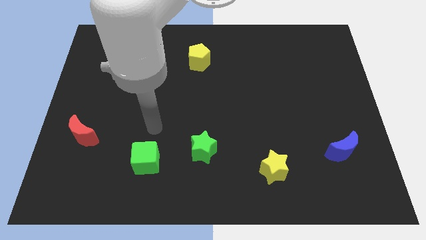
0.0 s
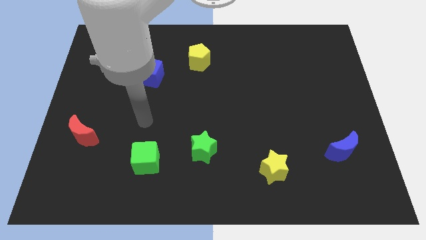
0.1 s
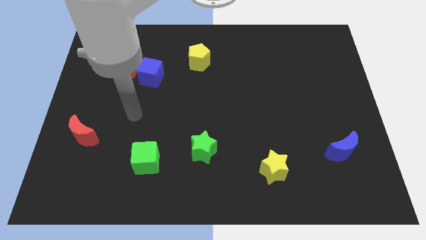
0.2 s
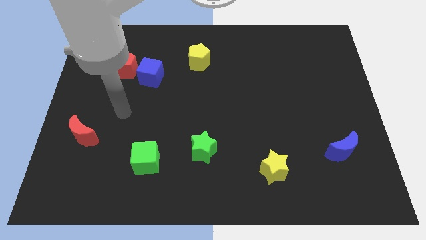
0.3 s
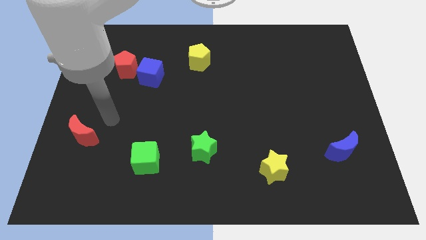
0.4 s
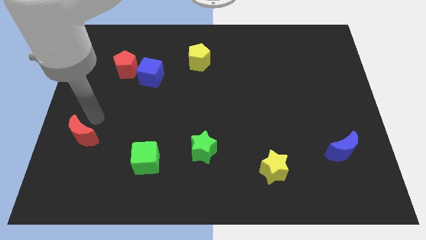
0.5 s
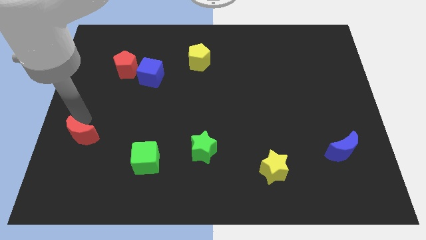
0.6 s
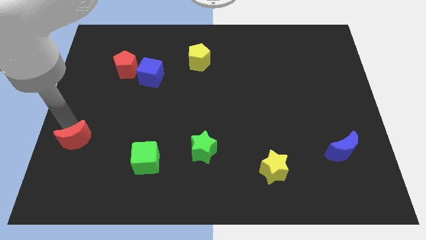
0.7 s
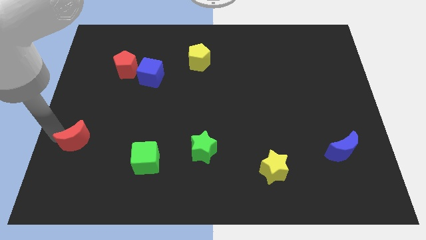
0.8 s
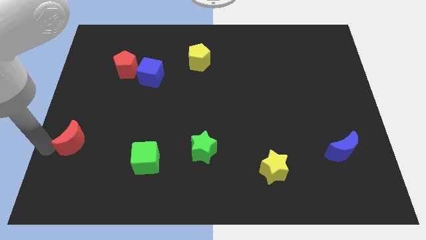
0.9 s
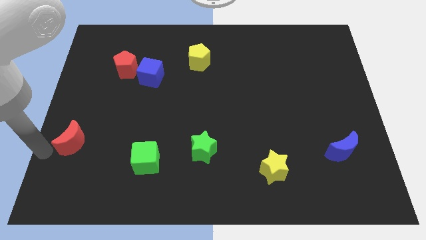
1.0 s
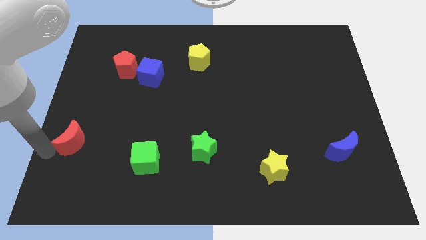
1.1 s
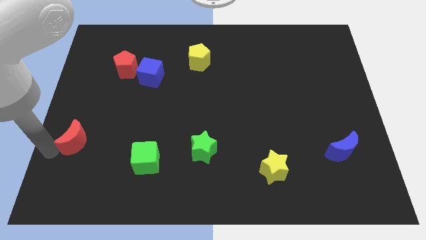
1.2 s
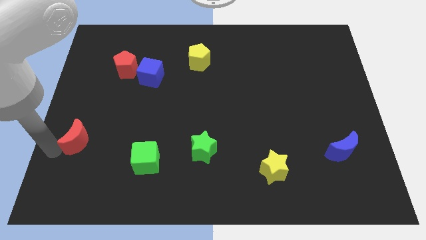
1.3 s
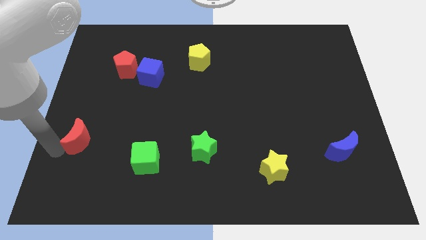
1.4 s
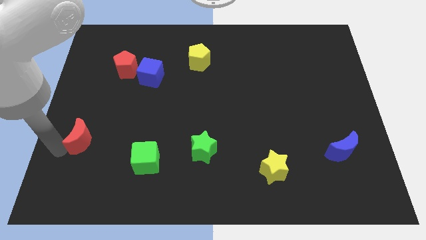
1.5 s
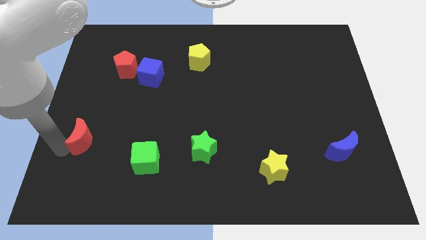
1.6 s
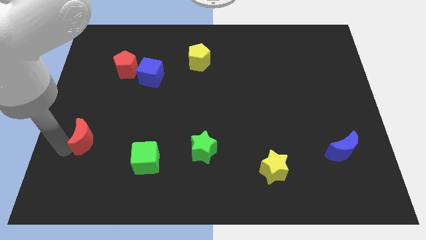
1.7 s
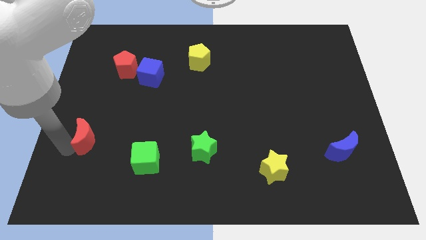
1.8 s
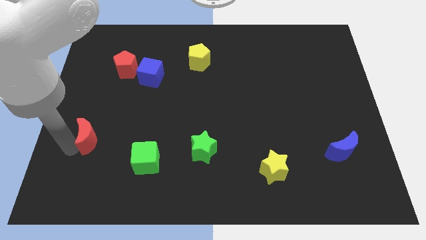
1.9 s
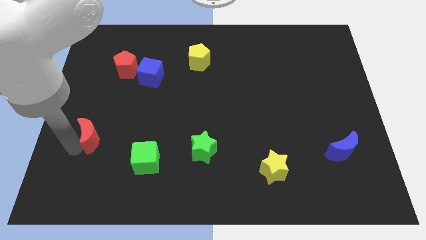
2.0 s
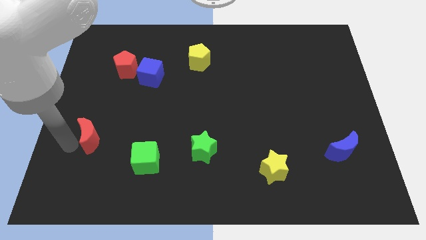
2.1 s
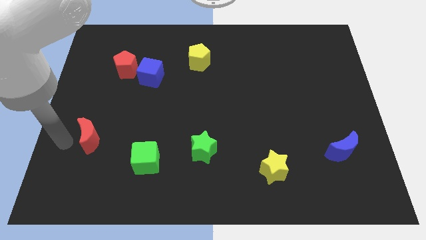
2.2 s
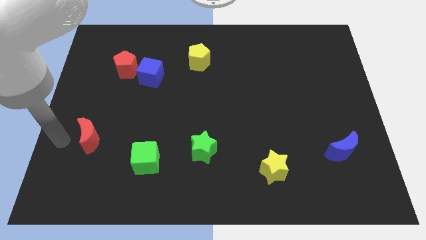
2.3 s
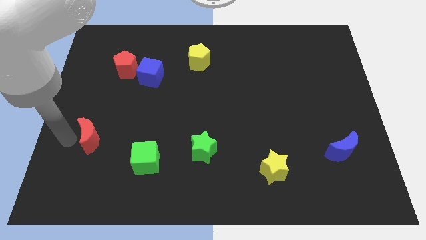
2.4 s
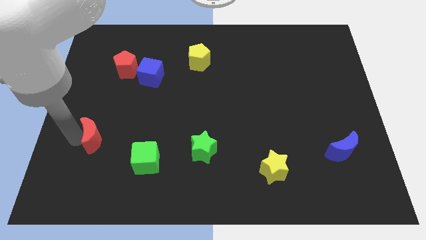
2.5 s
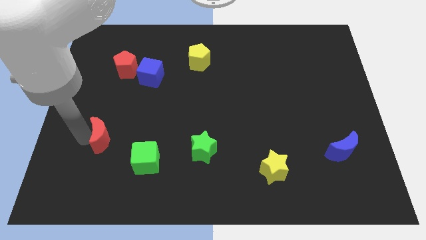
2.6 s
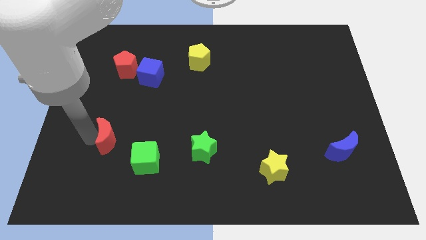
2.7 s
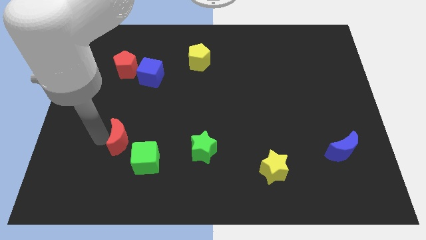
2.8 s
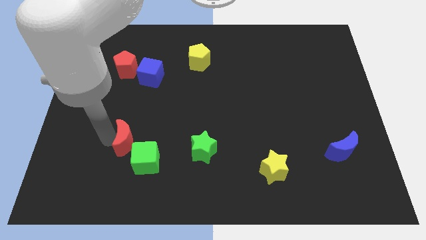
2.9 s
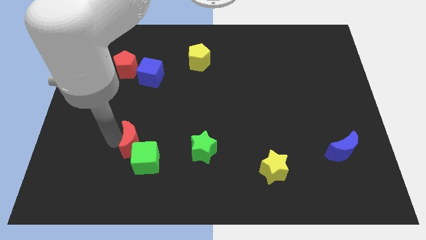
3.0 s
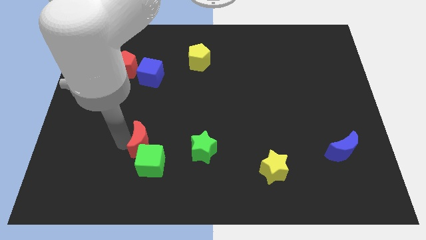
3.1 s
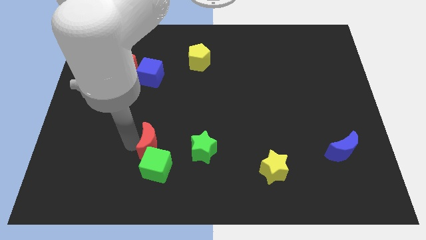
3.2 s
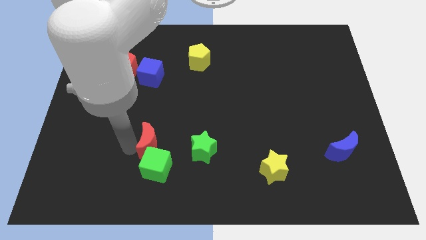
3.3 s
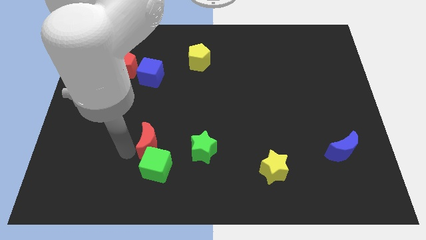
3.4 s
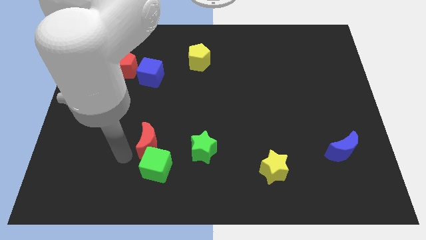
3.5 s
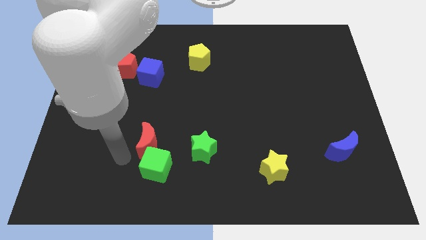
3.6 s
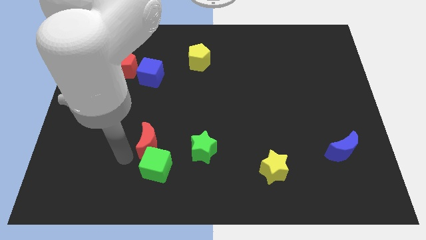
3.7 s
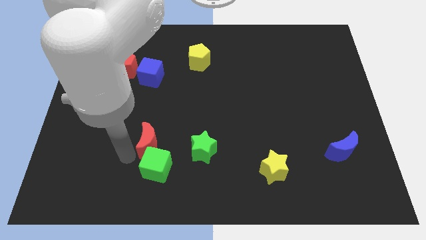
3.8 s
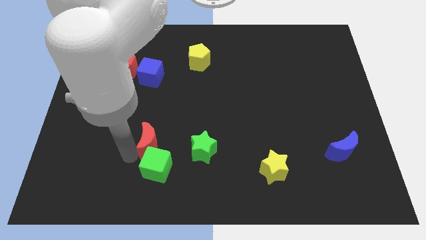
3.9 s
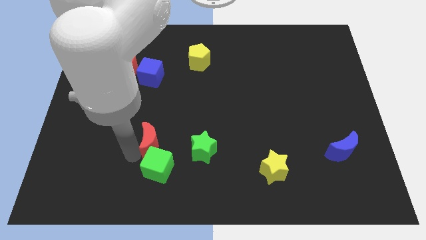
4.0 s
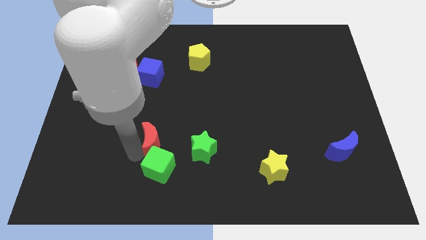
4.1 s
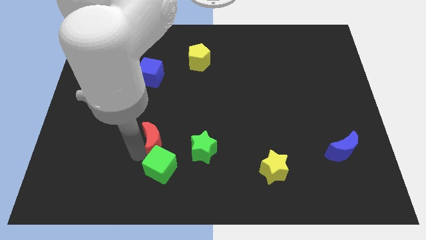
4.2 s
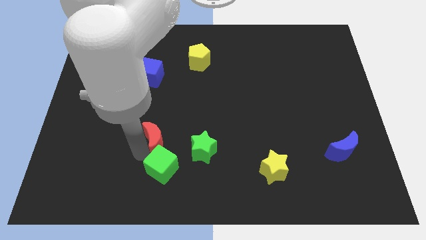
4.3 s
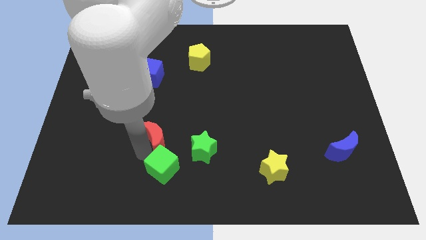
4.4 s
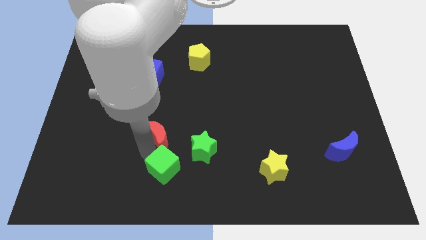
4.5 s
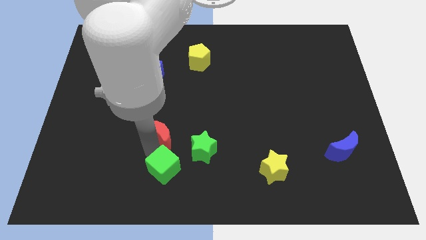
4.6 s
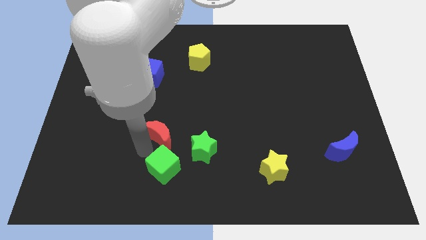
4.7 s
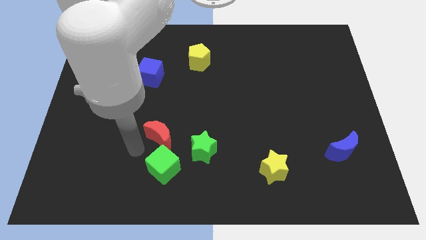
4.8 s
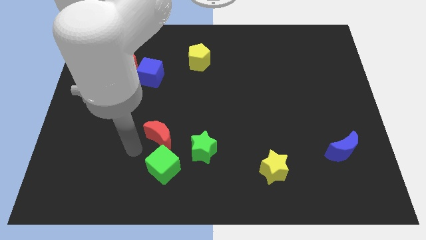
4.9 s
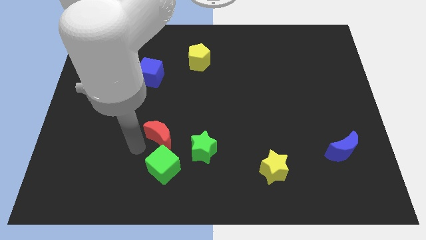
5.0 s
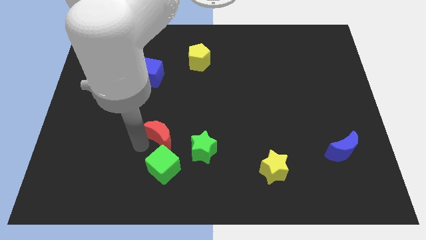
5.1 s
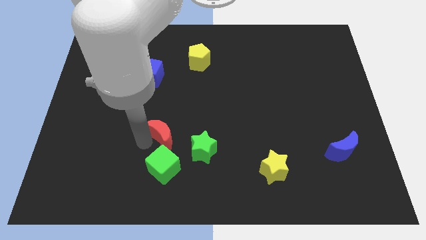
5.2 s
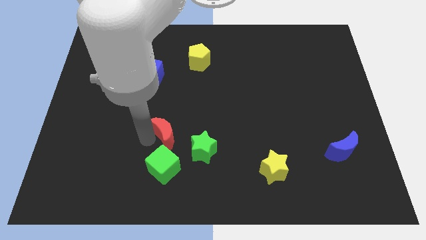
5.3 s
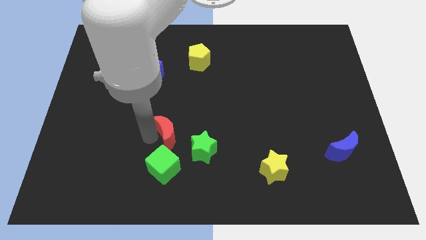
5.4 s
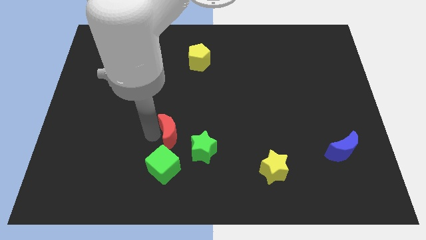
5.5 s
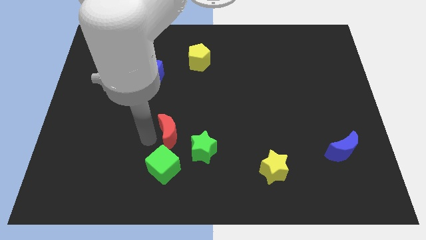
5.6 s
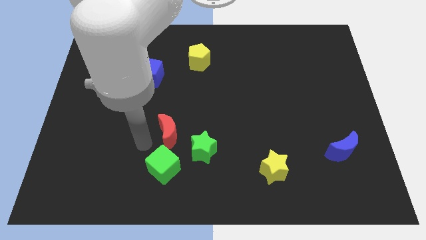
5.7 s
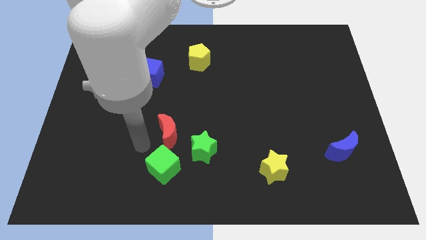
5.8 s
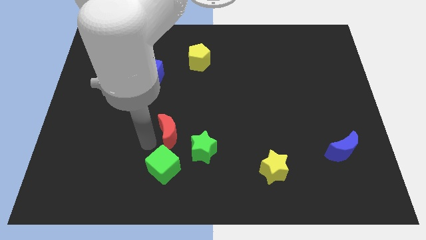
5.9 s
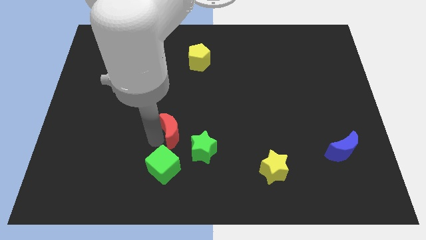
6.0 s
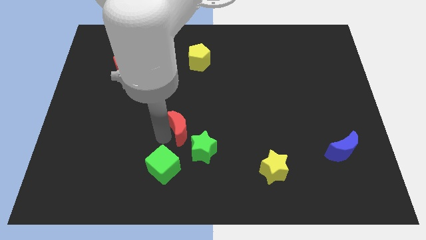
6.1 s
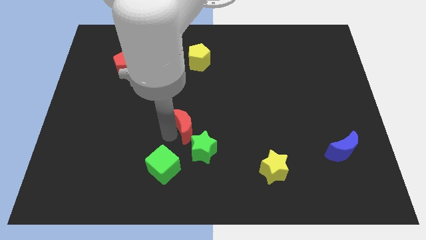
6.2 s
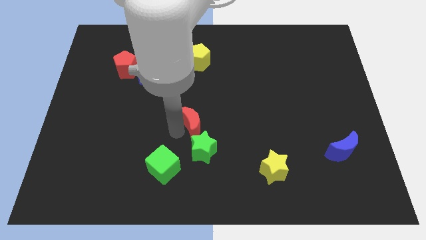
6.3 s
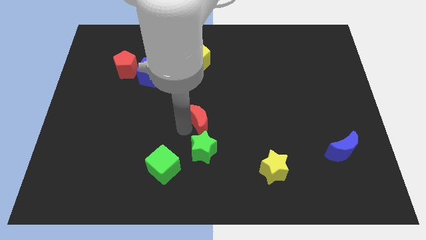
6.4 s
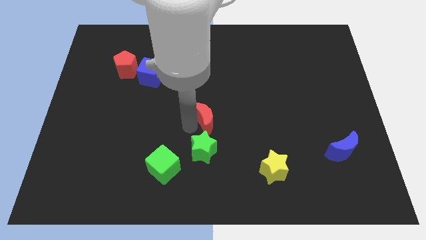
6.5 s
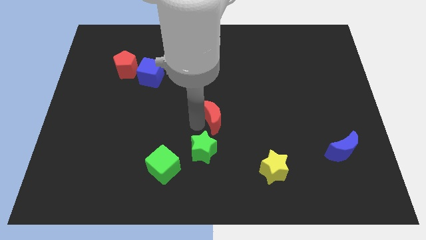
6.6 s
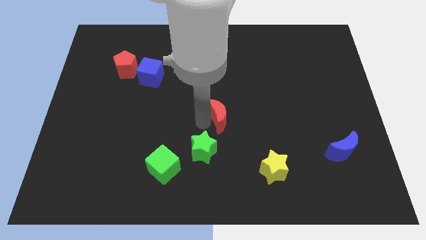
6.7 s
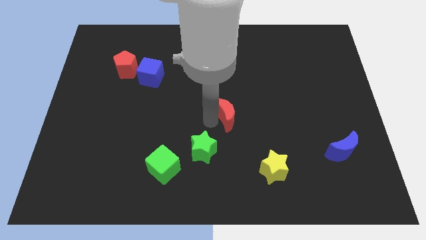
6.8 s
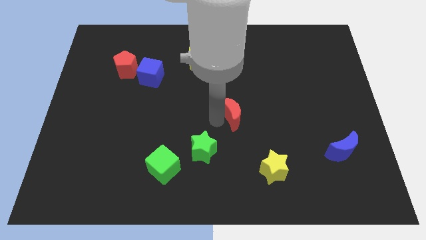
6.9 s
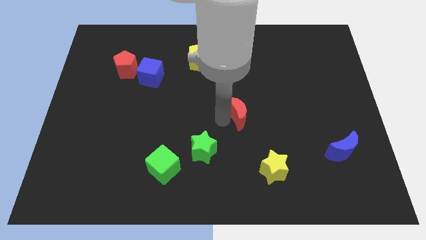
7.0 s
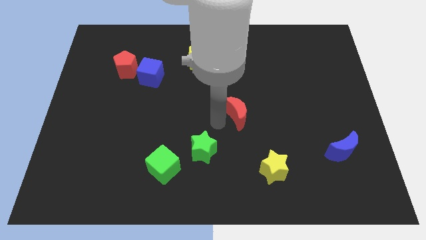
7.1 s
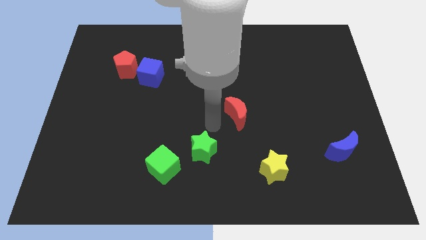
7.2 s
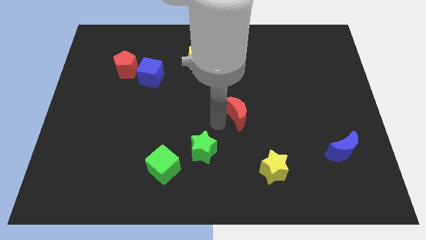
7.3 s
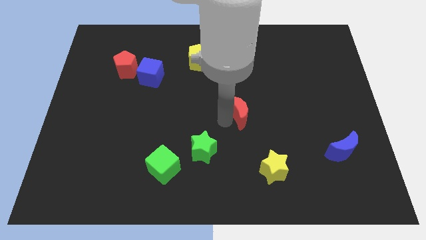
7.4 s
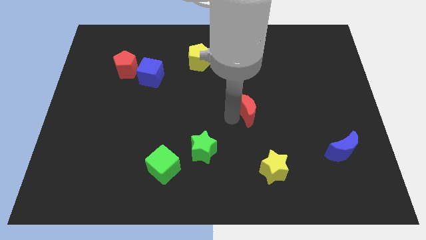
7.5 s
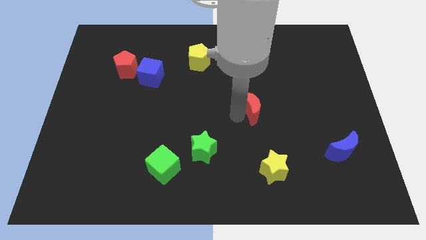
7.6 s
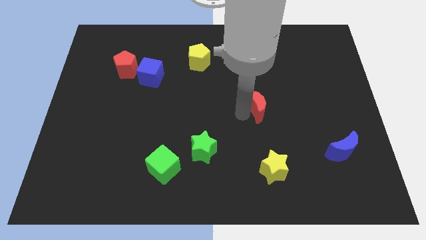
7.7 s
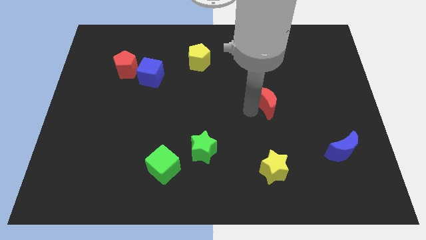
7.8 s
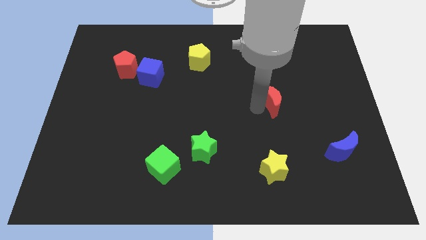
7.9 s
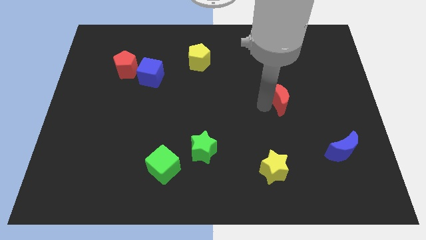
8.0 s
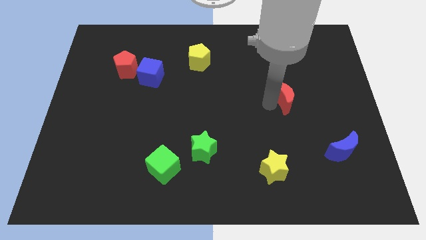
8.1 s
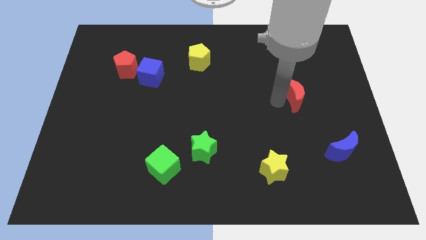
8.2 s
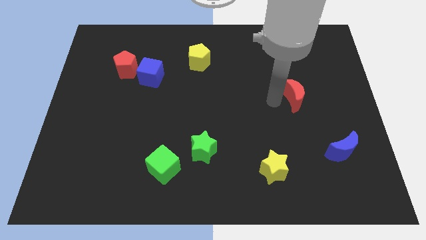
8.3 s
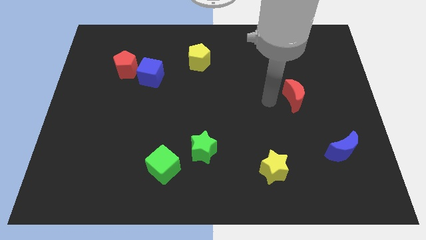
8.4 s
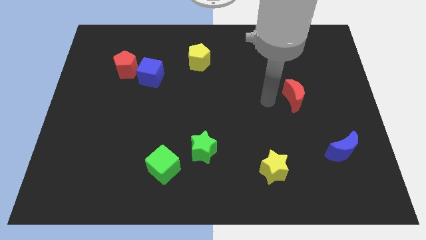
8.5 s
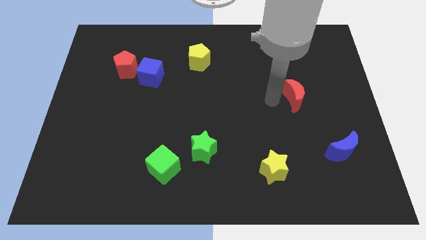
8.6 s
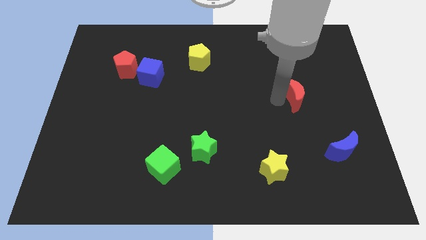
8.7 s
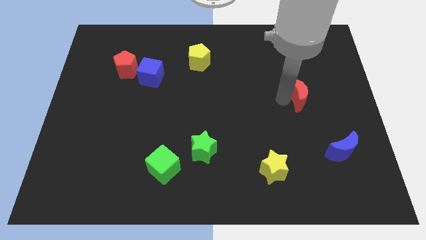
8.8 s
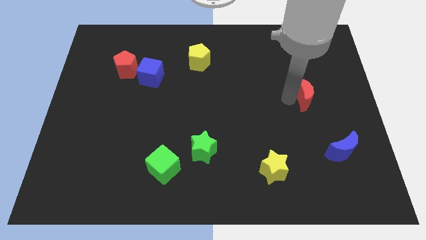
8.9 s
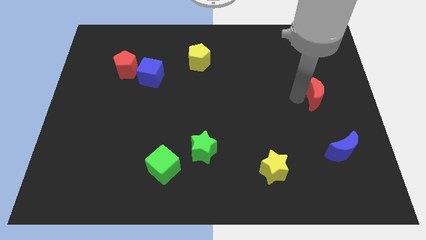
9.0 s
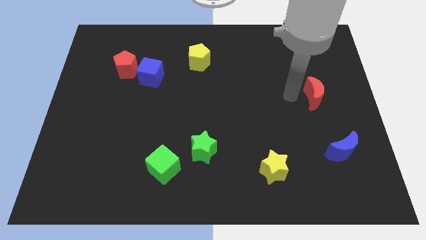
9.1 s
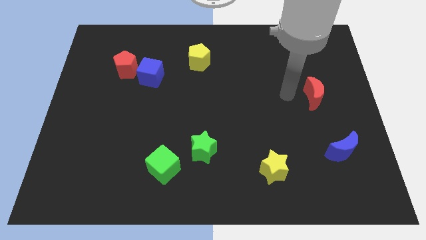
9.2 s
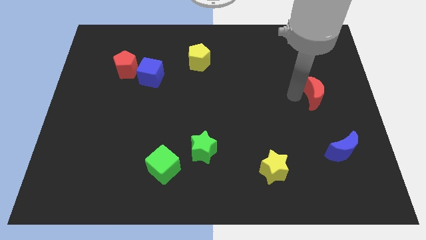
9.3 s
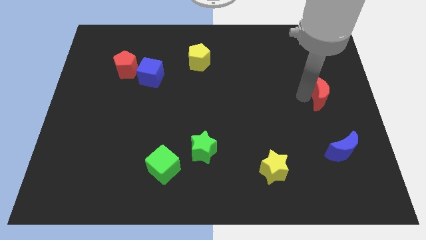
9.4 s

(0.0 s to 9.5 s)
push the red moon to the right side
